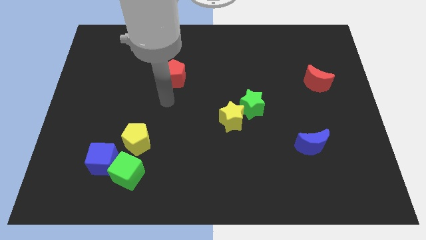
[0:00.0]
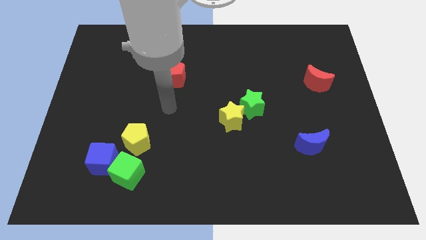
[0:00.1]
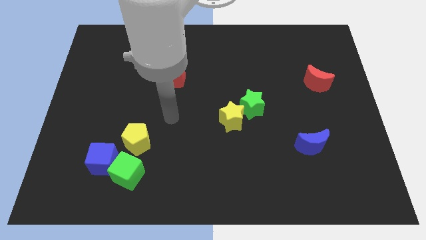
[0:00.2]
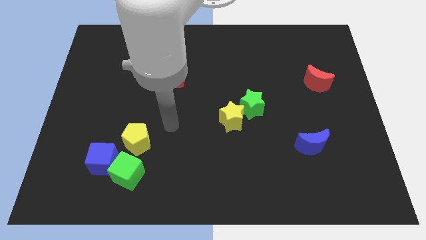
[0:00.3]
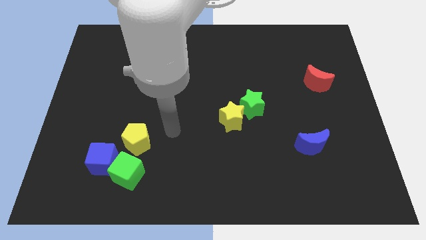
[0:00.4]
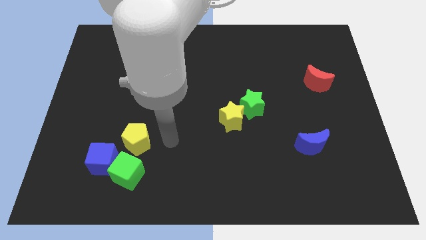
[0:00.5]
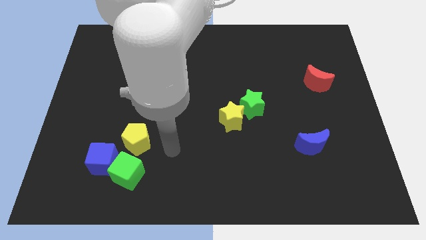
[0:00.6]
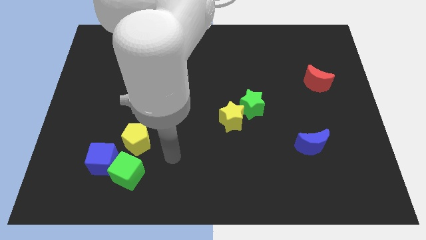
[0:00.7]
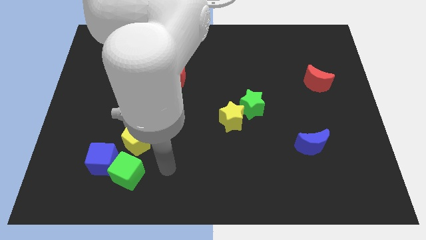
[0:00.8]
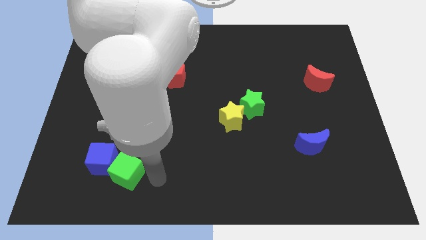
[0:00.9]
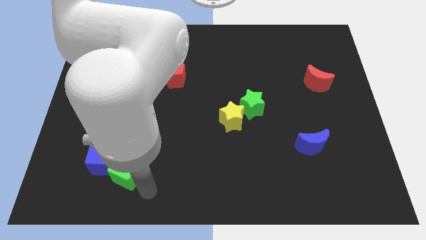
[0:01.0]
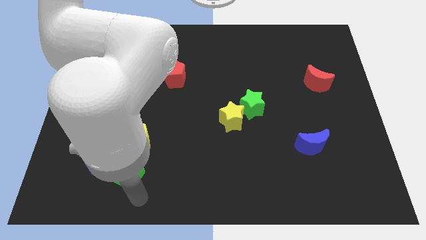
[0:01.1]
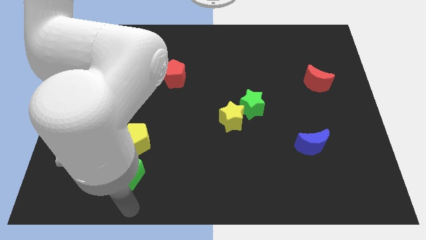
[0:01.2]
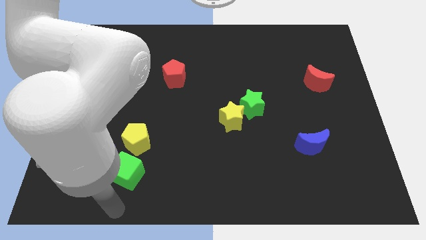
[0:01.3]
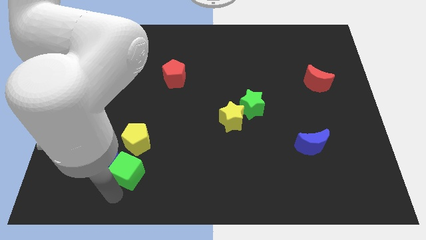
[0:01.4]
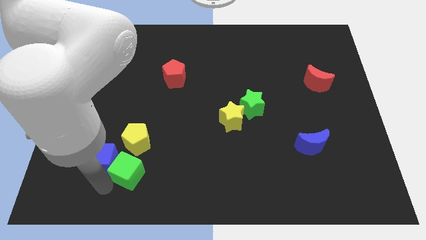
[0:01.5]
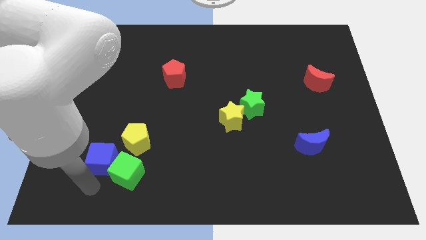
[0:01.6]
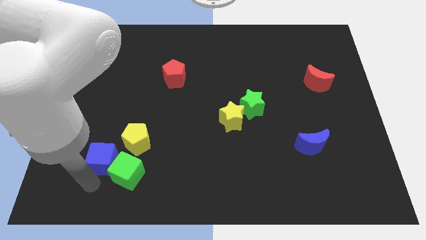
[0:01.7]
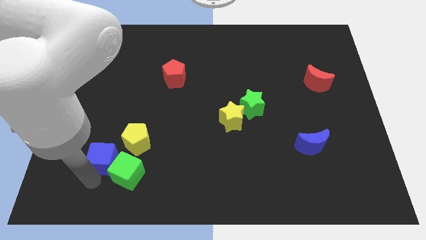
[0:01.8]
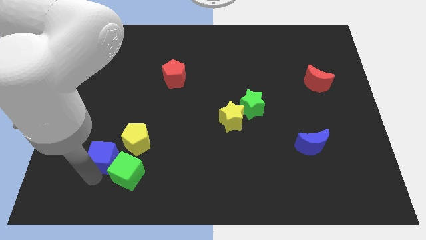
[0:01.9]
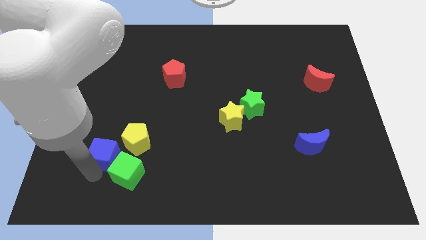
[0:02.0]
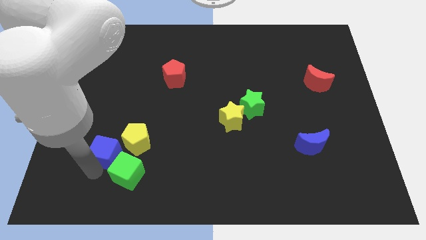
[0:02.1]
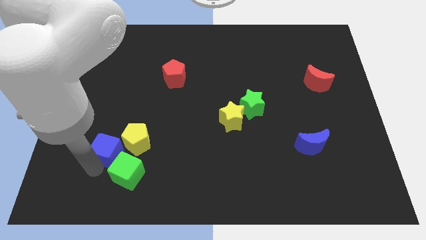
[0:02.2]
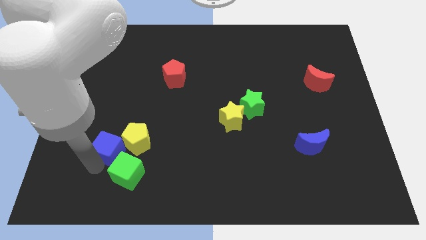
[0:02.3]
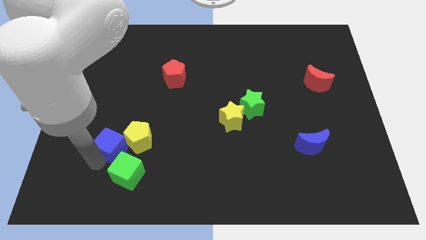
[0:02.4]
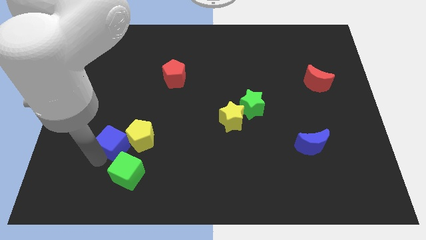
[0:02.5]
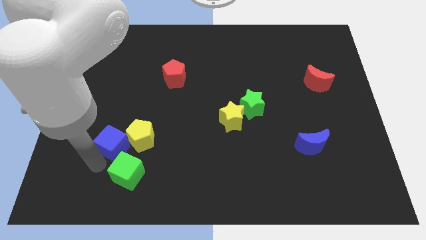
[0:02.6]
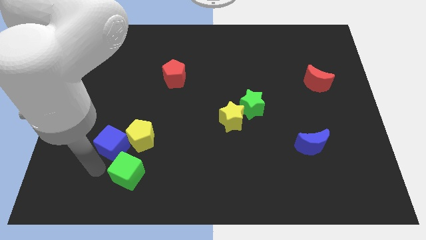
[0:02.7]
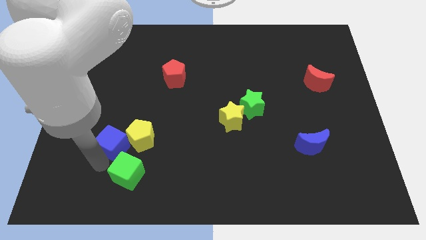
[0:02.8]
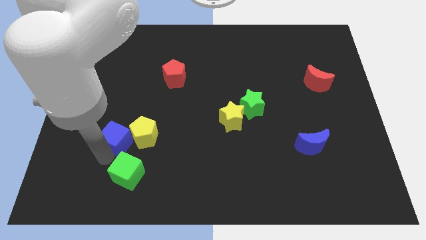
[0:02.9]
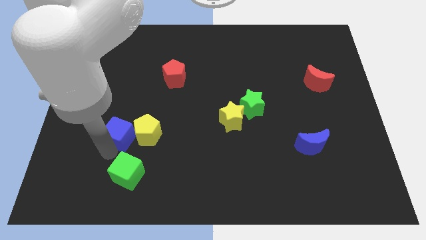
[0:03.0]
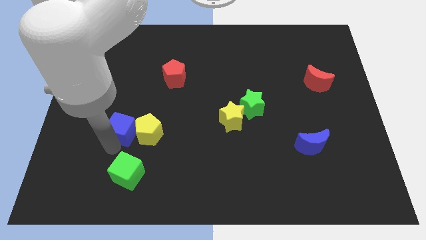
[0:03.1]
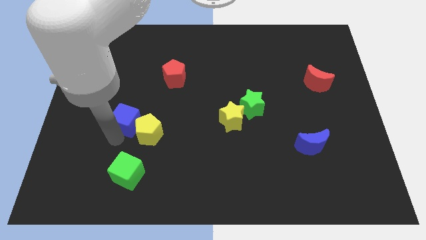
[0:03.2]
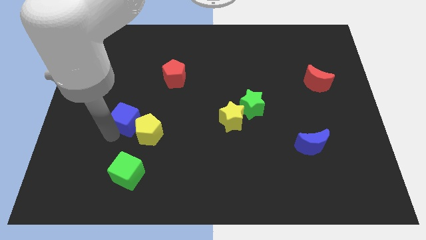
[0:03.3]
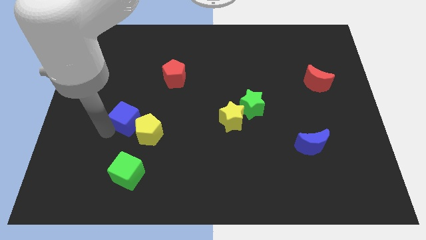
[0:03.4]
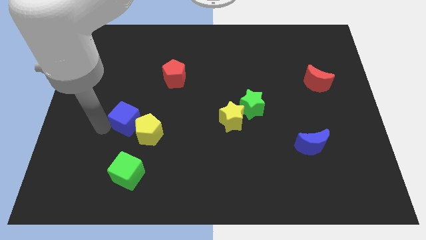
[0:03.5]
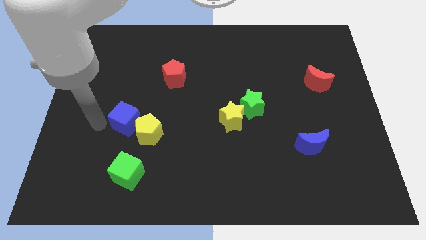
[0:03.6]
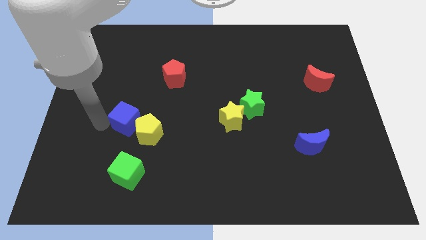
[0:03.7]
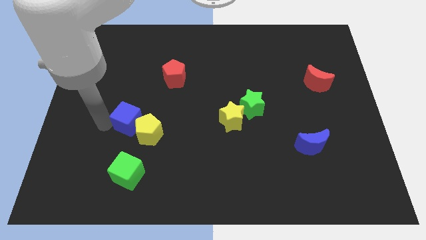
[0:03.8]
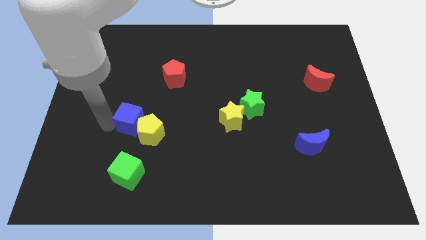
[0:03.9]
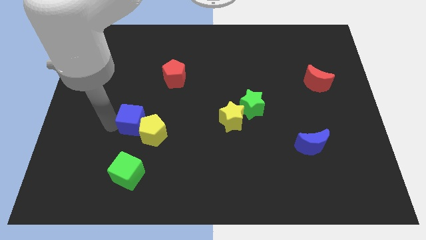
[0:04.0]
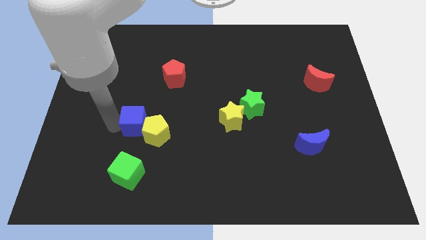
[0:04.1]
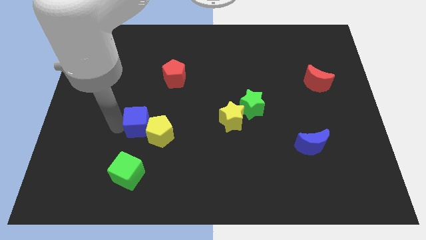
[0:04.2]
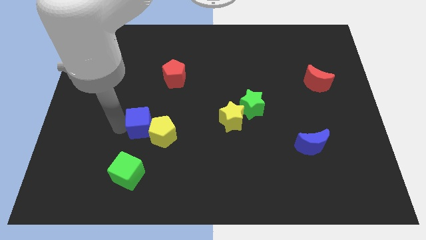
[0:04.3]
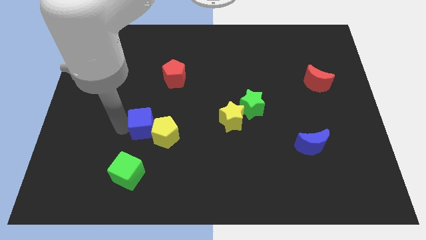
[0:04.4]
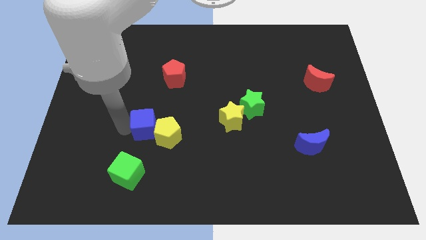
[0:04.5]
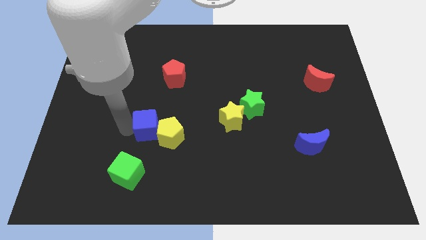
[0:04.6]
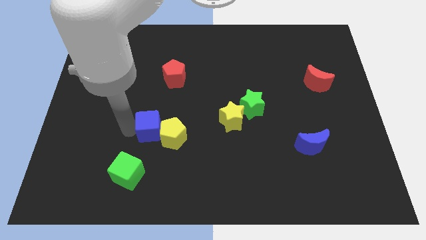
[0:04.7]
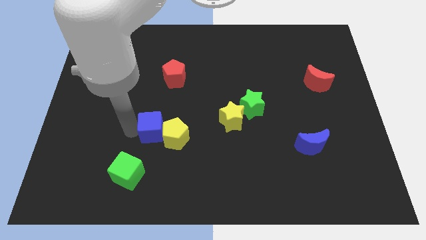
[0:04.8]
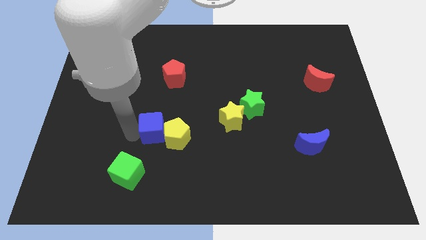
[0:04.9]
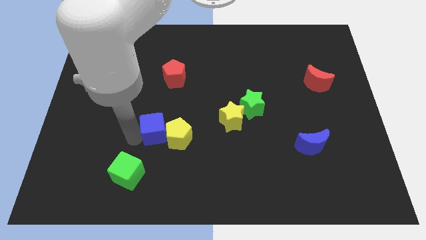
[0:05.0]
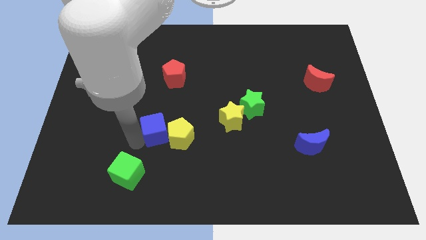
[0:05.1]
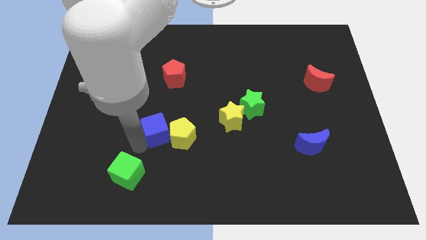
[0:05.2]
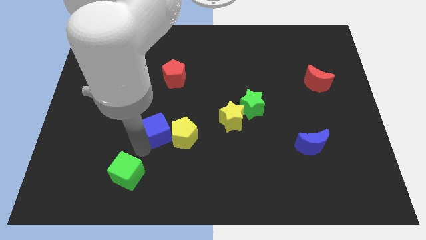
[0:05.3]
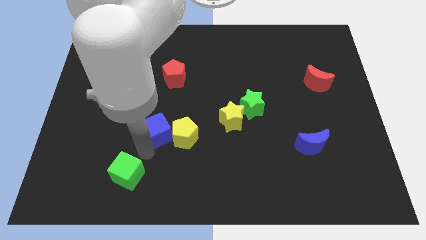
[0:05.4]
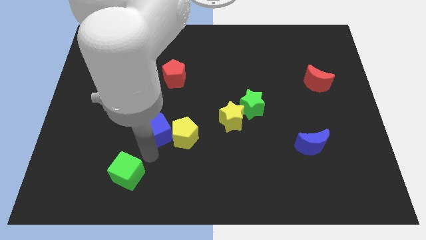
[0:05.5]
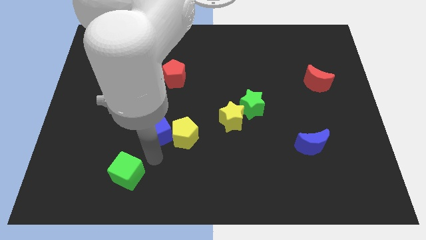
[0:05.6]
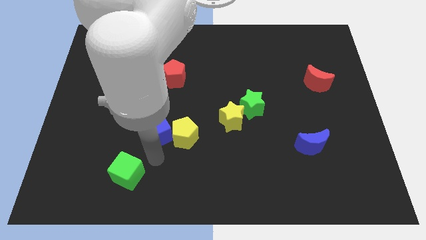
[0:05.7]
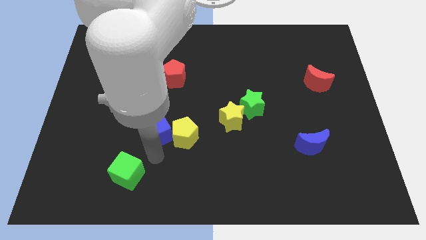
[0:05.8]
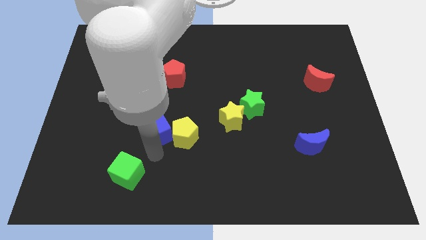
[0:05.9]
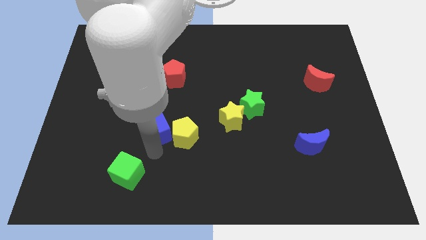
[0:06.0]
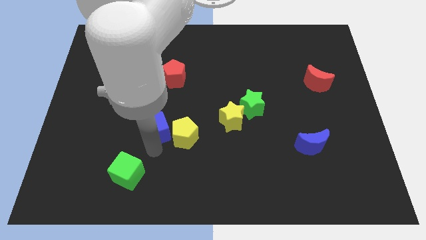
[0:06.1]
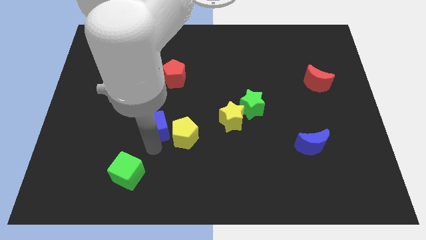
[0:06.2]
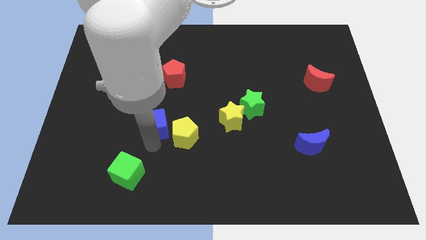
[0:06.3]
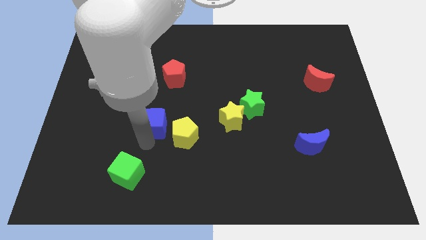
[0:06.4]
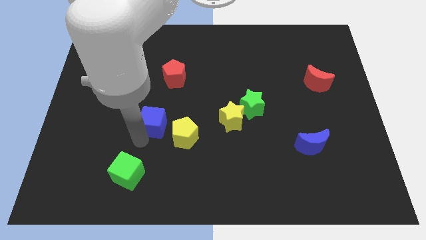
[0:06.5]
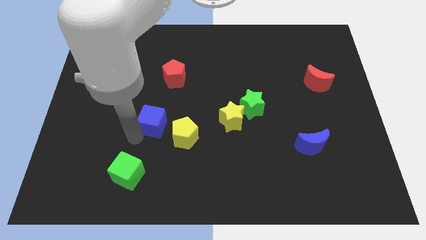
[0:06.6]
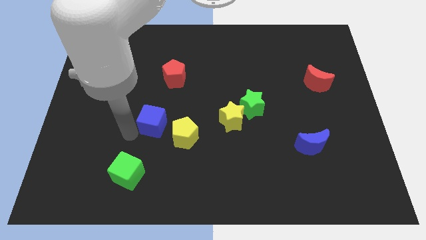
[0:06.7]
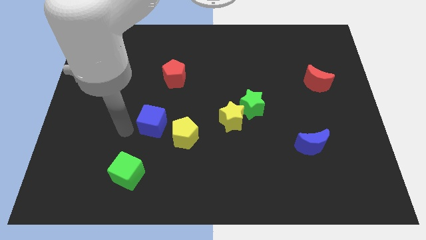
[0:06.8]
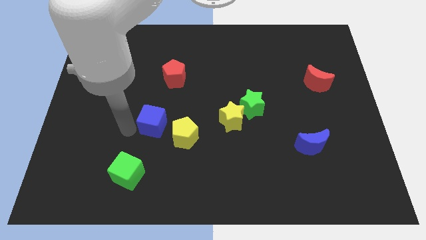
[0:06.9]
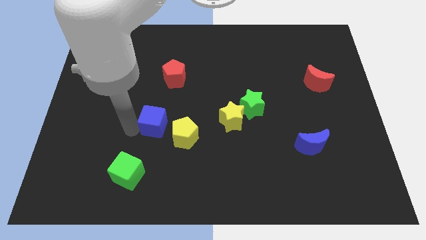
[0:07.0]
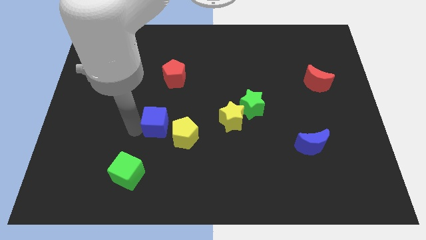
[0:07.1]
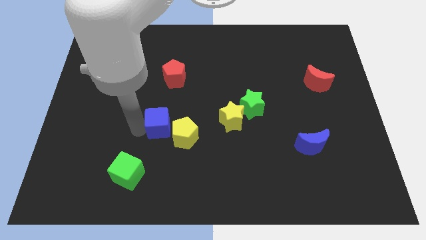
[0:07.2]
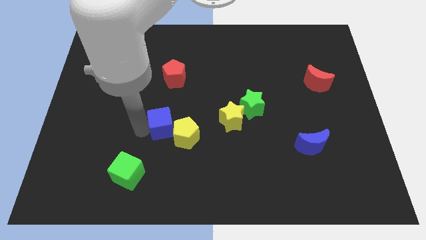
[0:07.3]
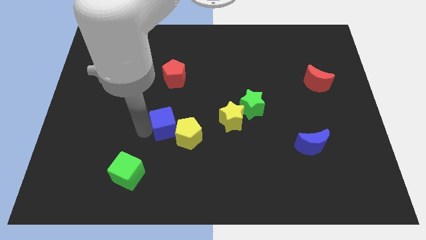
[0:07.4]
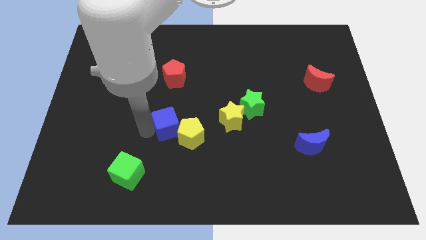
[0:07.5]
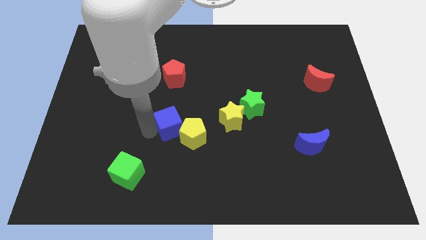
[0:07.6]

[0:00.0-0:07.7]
slide the blue cube to the center
